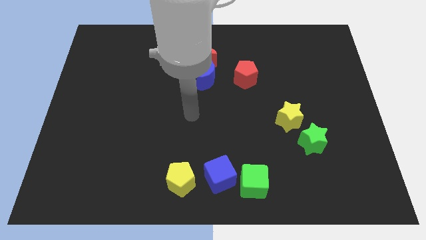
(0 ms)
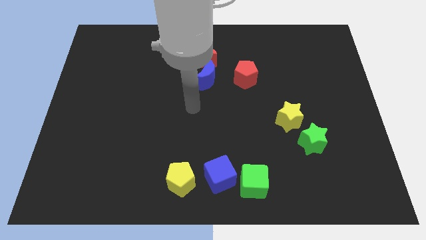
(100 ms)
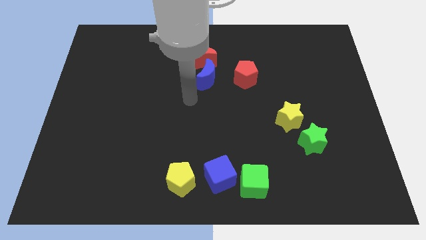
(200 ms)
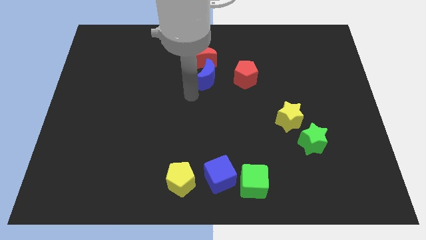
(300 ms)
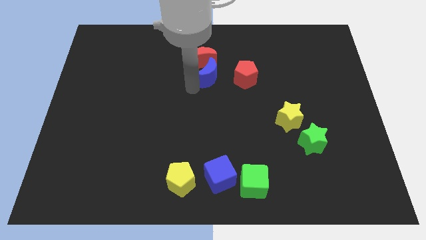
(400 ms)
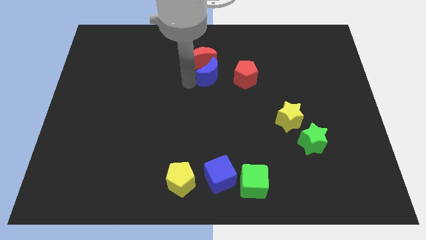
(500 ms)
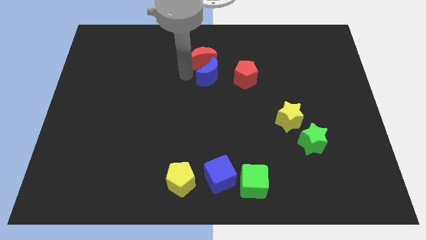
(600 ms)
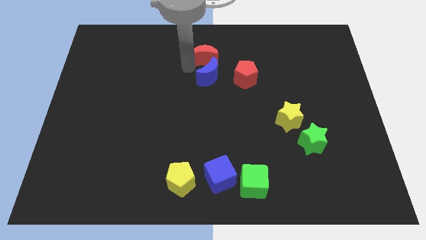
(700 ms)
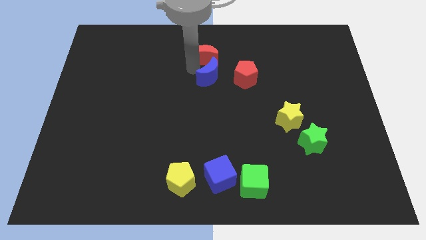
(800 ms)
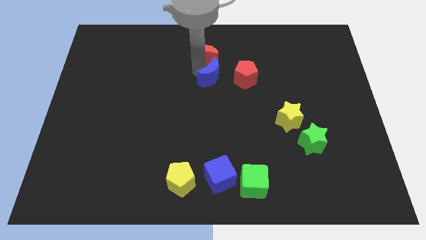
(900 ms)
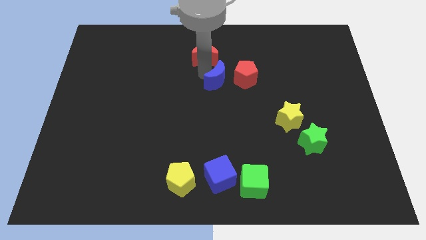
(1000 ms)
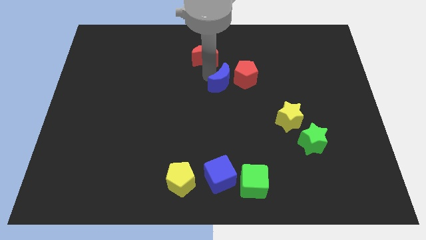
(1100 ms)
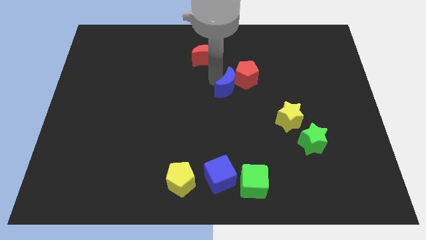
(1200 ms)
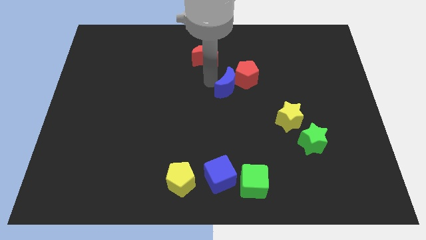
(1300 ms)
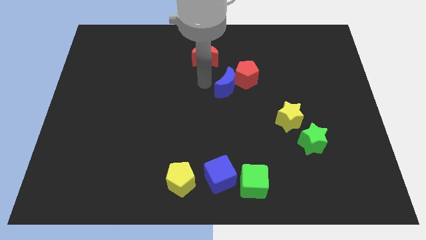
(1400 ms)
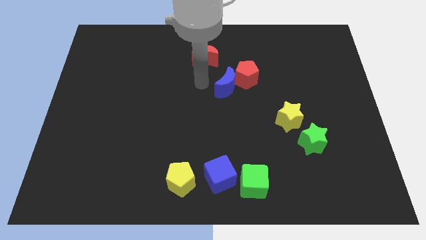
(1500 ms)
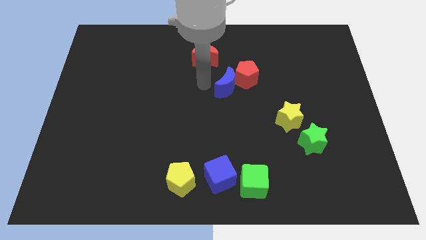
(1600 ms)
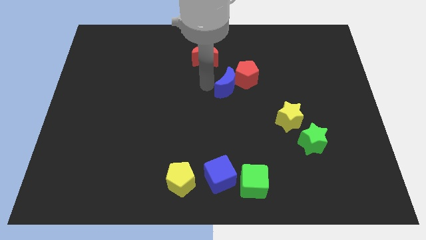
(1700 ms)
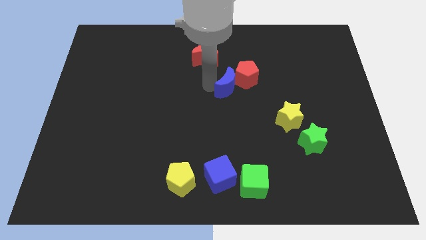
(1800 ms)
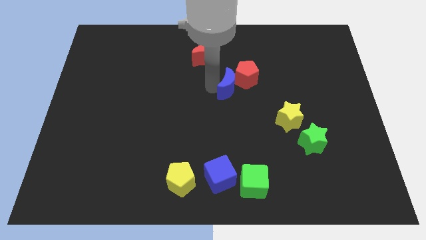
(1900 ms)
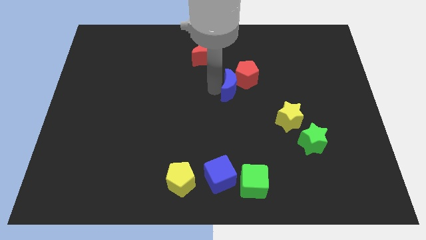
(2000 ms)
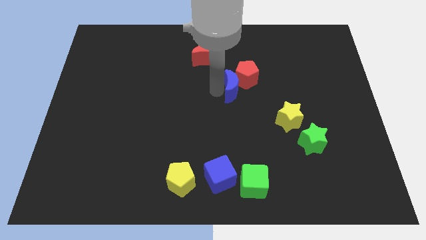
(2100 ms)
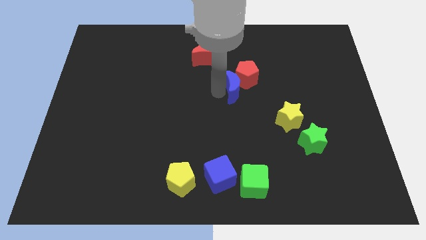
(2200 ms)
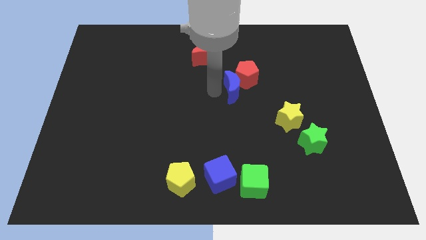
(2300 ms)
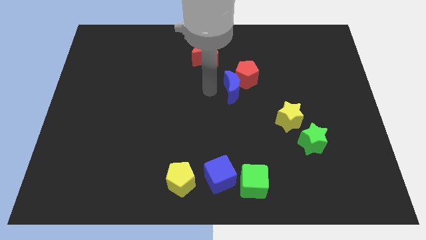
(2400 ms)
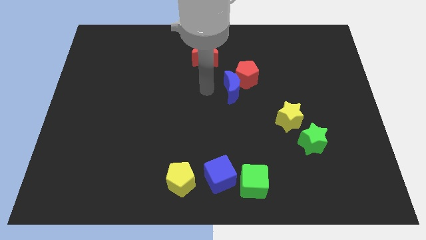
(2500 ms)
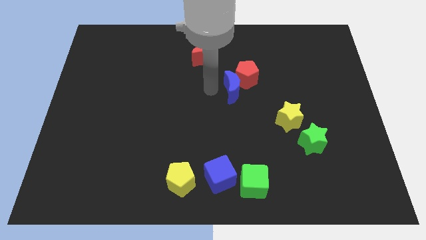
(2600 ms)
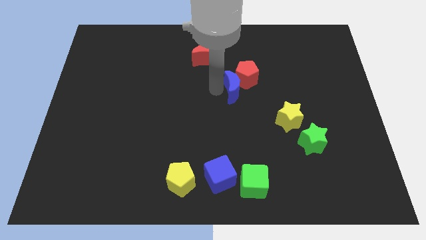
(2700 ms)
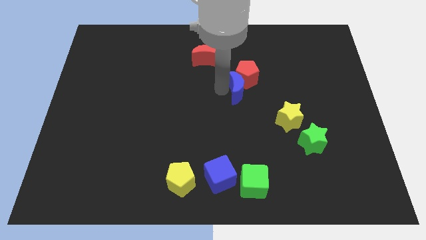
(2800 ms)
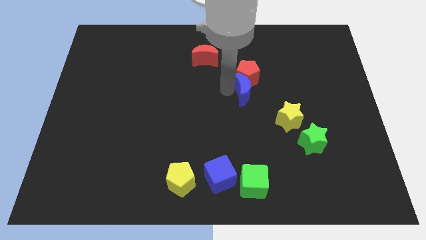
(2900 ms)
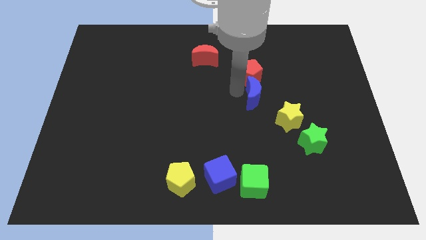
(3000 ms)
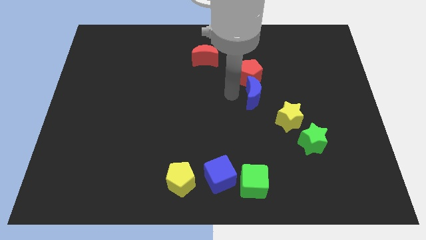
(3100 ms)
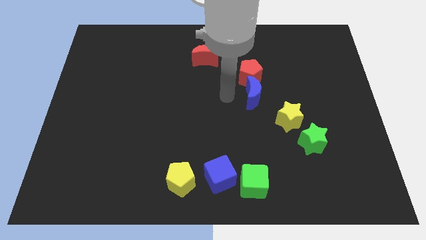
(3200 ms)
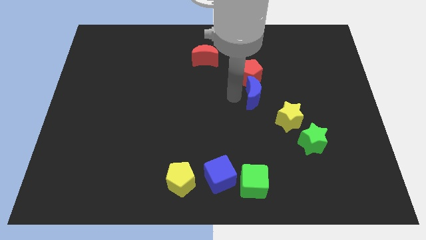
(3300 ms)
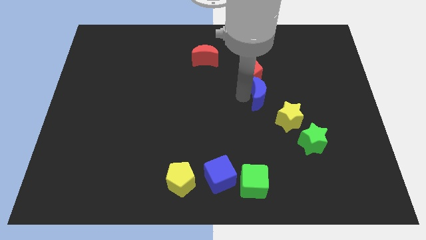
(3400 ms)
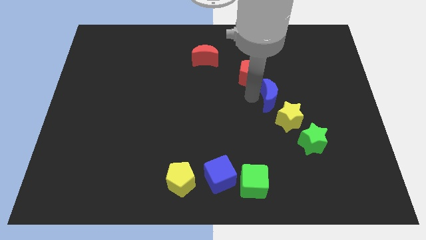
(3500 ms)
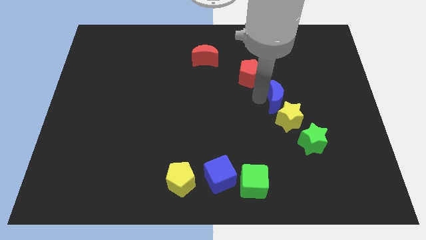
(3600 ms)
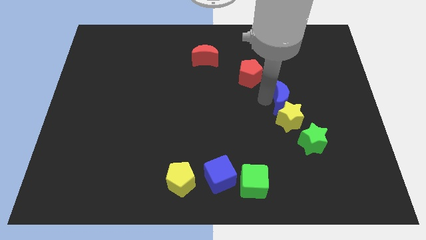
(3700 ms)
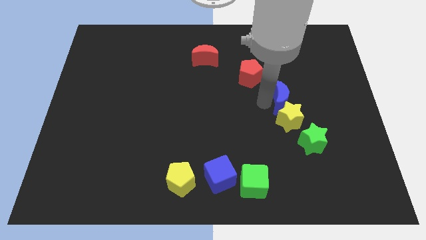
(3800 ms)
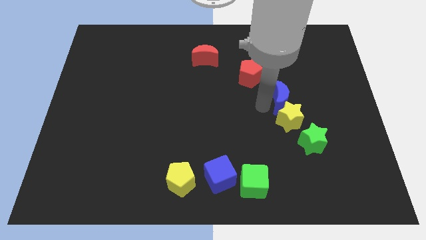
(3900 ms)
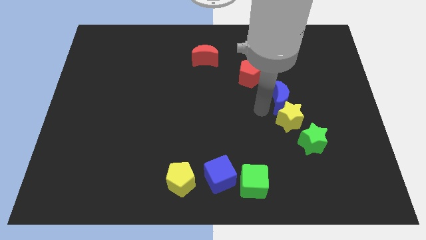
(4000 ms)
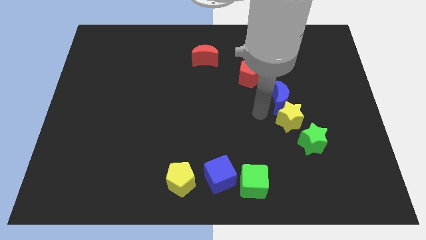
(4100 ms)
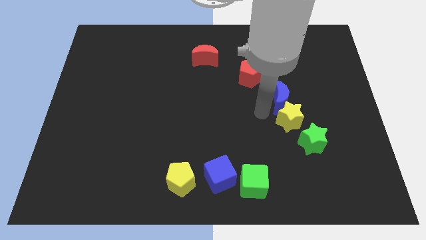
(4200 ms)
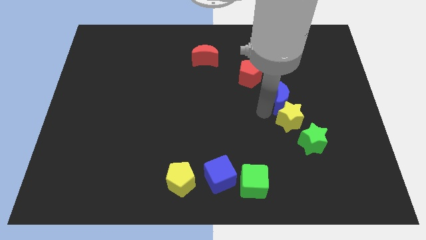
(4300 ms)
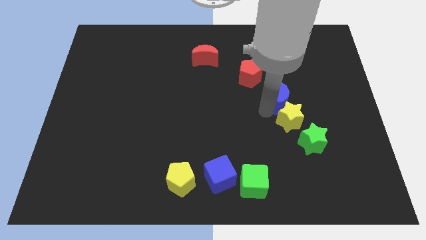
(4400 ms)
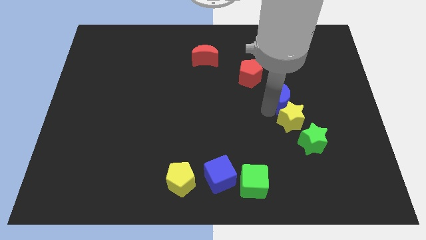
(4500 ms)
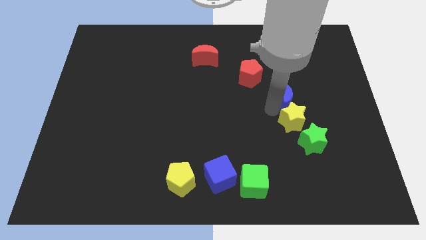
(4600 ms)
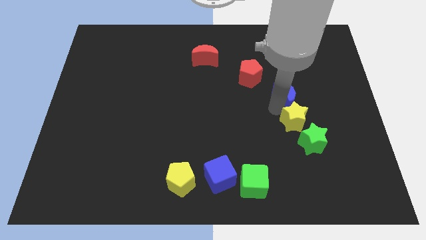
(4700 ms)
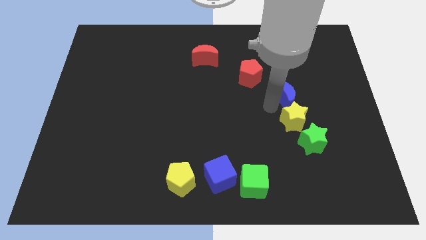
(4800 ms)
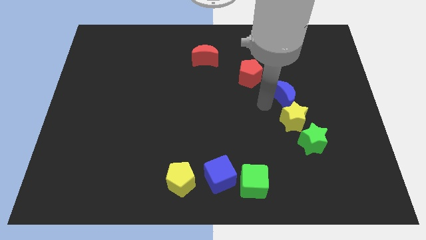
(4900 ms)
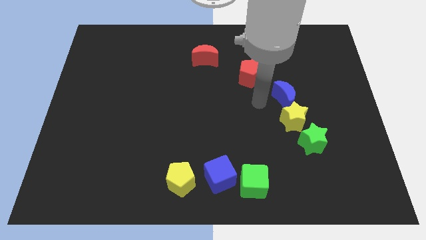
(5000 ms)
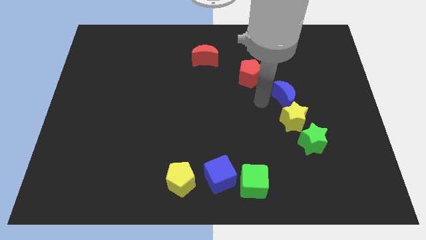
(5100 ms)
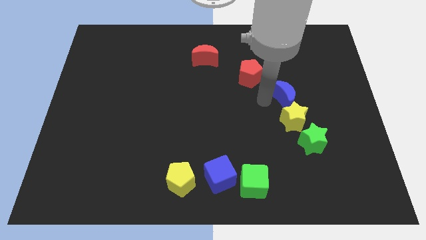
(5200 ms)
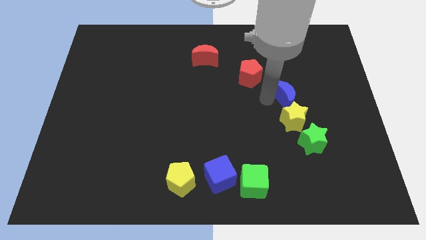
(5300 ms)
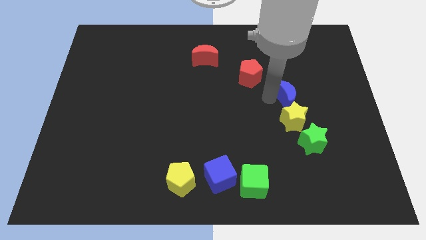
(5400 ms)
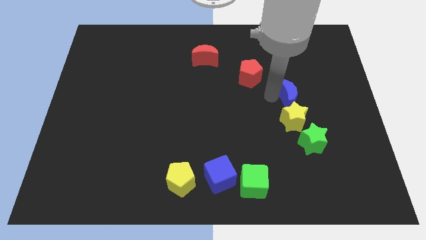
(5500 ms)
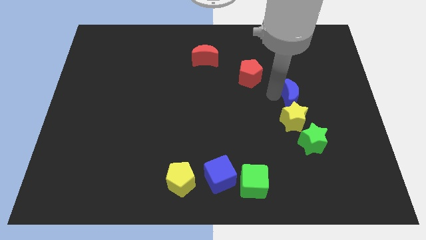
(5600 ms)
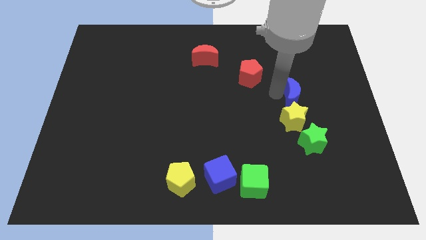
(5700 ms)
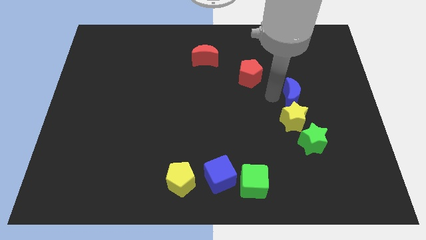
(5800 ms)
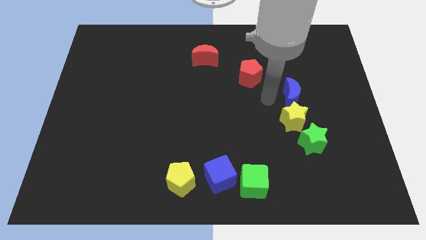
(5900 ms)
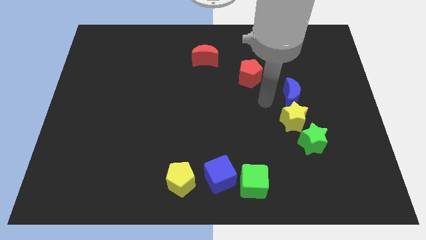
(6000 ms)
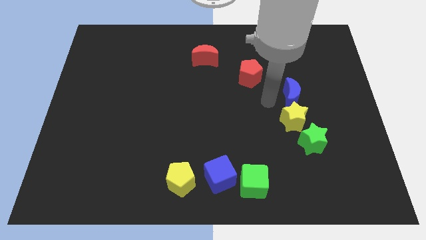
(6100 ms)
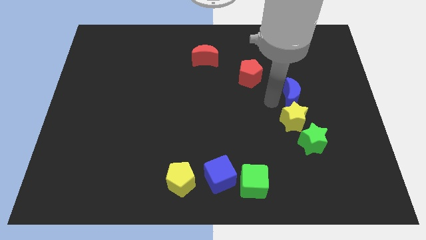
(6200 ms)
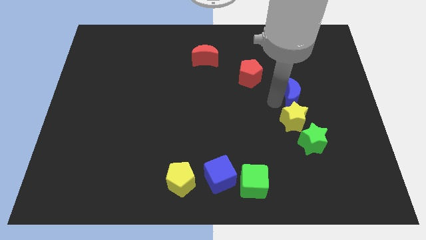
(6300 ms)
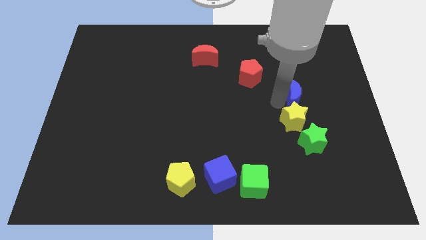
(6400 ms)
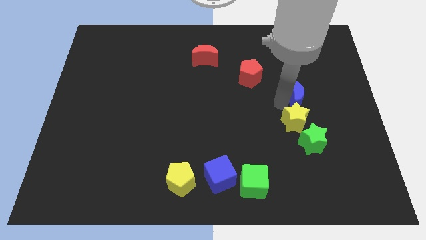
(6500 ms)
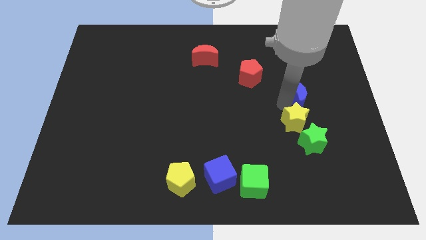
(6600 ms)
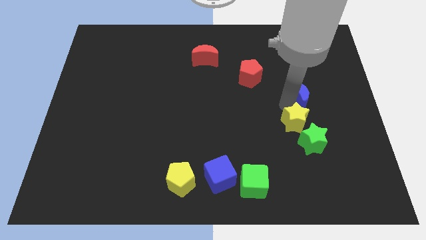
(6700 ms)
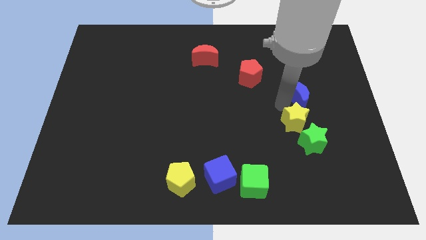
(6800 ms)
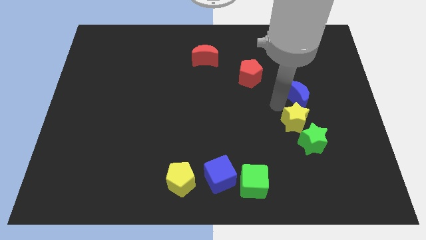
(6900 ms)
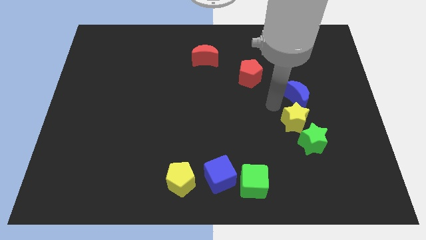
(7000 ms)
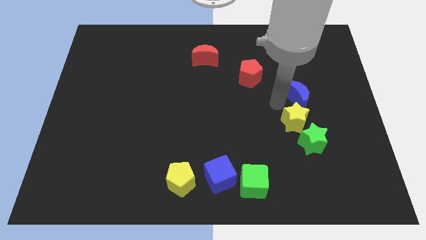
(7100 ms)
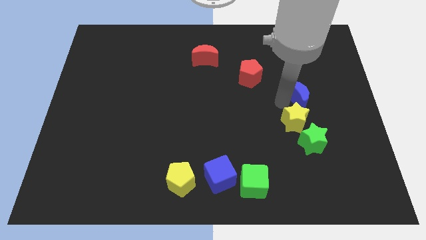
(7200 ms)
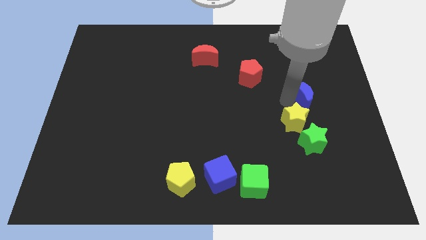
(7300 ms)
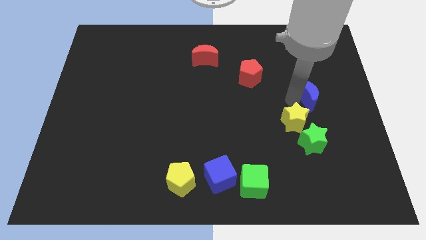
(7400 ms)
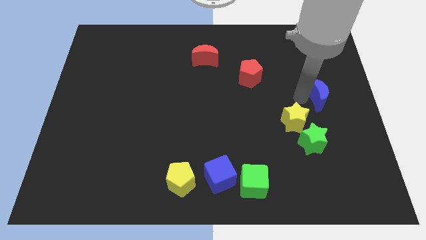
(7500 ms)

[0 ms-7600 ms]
slide the blue moon to the right side
